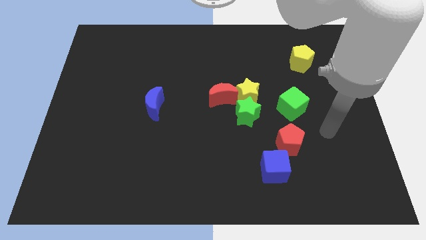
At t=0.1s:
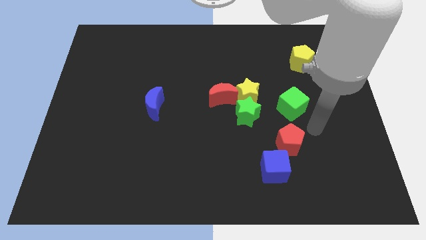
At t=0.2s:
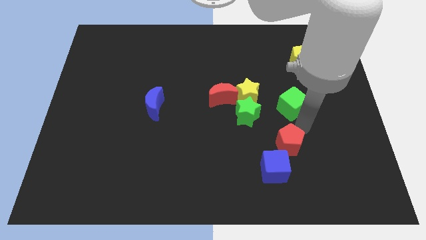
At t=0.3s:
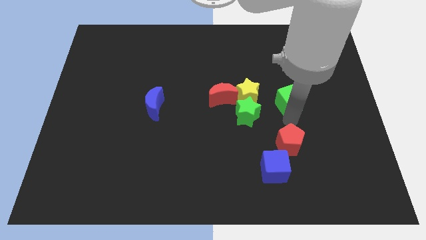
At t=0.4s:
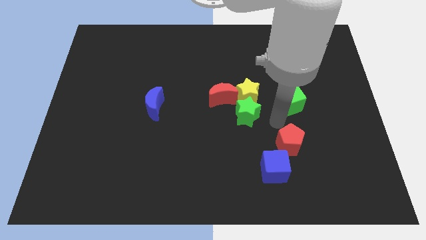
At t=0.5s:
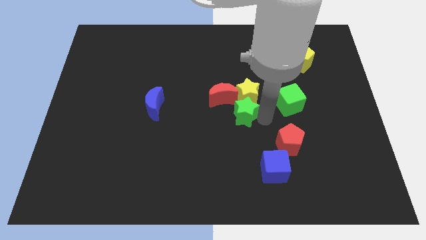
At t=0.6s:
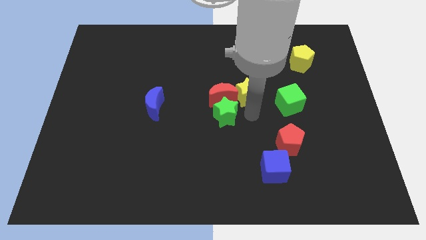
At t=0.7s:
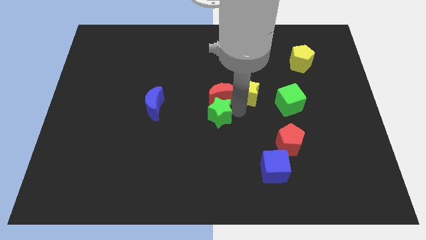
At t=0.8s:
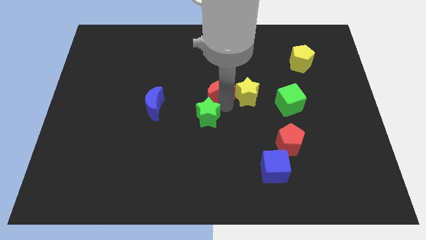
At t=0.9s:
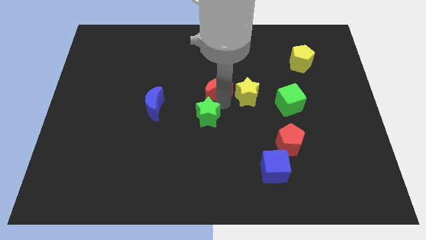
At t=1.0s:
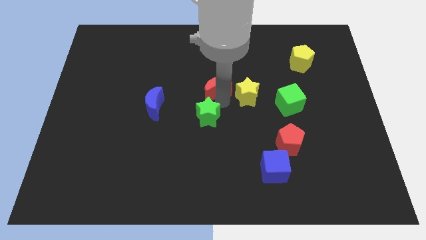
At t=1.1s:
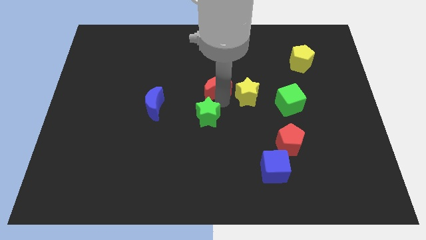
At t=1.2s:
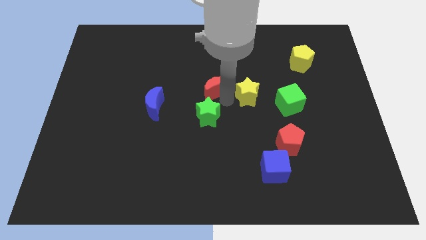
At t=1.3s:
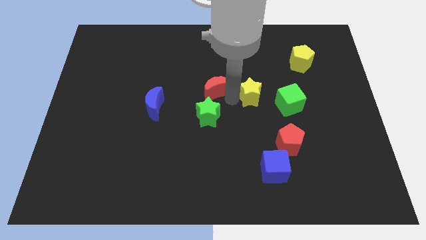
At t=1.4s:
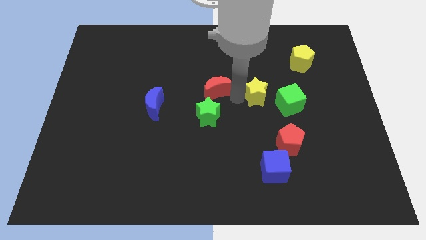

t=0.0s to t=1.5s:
separate the yellow star from the green star and red moon

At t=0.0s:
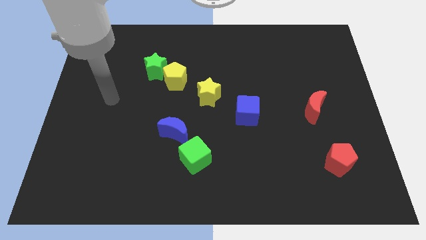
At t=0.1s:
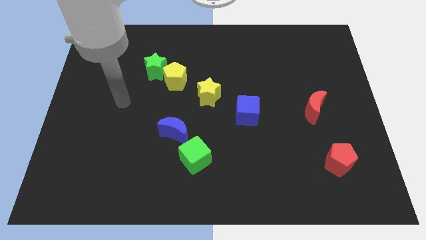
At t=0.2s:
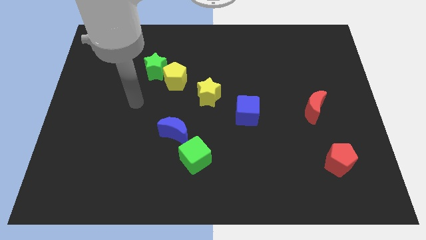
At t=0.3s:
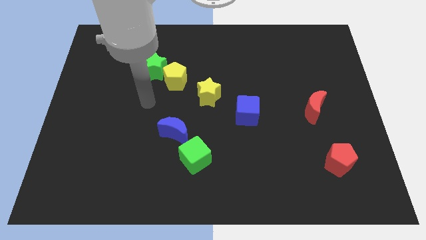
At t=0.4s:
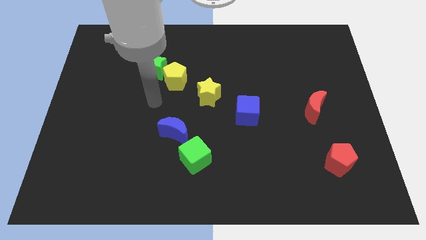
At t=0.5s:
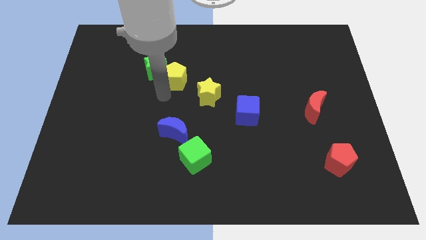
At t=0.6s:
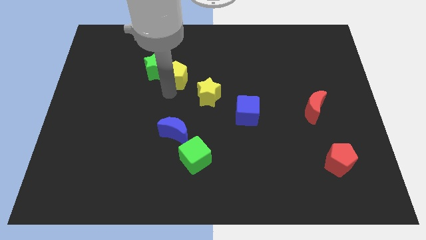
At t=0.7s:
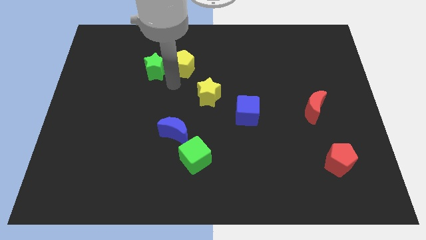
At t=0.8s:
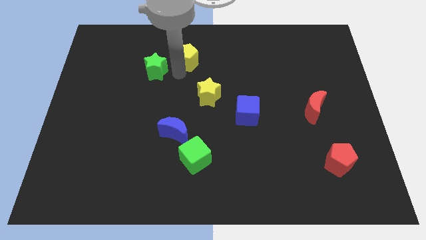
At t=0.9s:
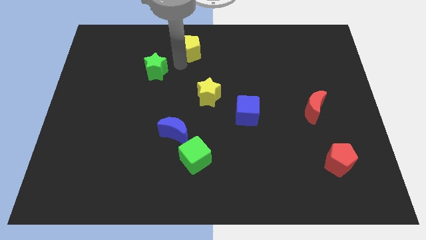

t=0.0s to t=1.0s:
pull the green star apart from the yellow pentagon

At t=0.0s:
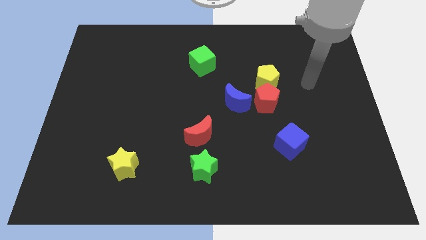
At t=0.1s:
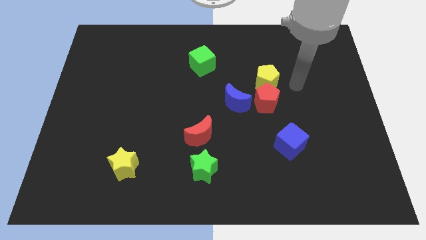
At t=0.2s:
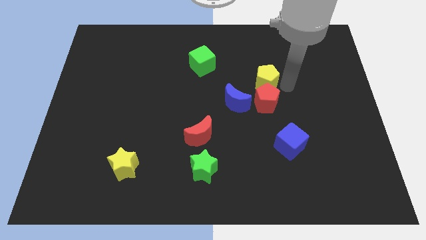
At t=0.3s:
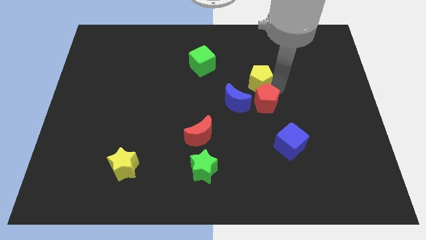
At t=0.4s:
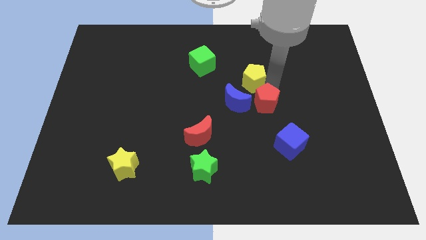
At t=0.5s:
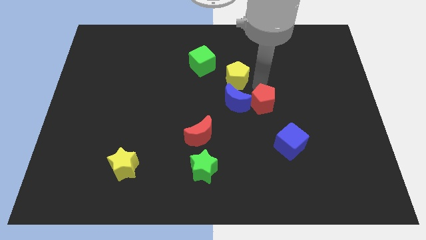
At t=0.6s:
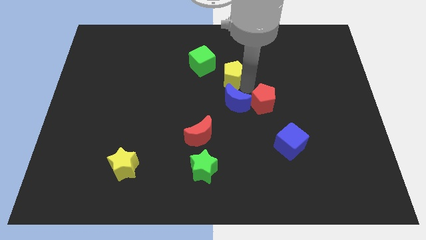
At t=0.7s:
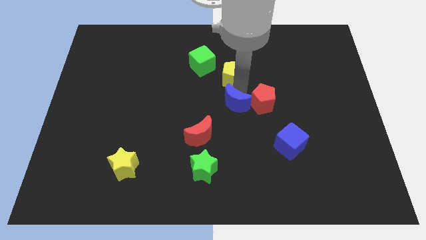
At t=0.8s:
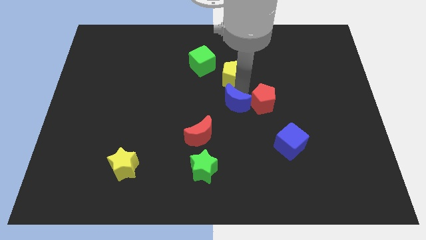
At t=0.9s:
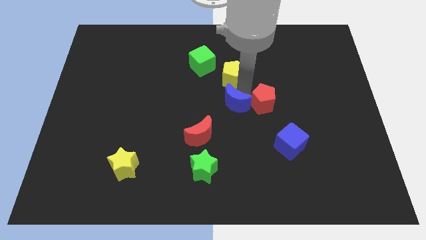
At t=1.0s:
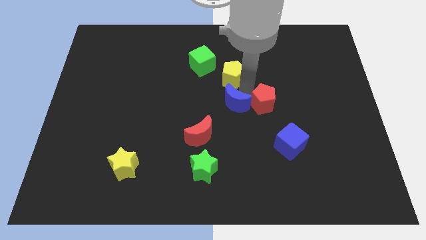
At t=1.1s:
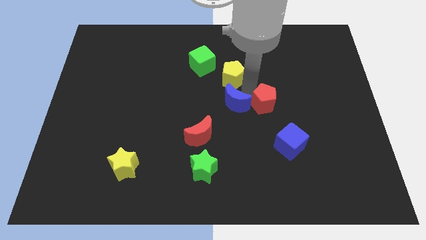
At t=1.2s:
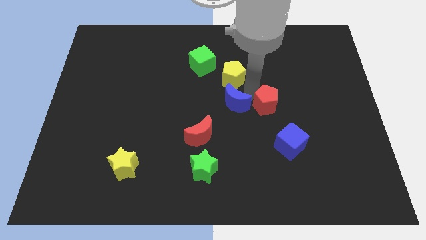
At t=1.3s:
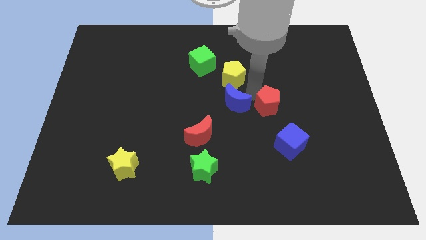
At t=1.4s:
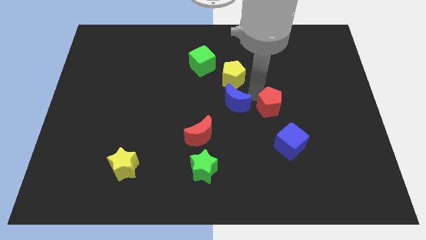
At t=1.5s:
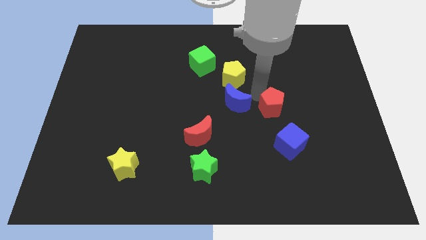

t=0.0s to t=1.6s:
move the red pentagon away from the yellow pentagon and blue moon

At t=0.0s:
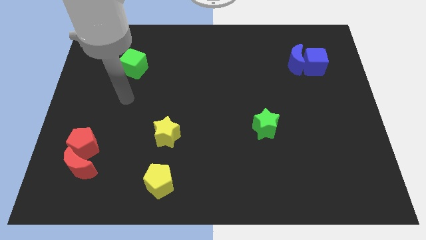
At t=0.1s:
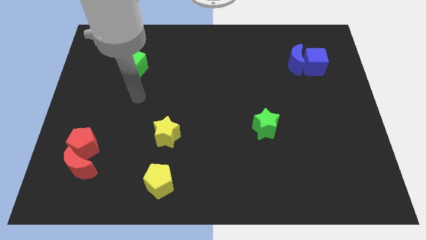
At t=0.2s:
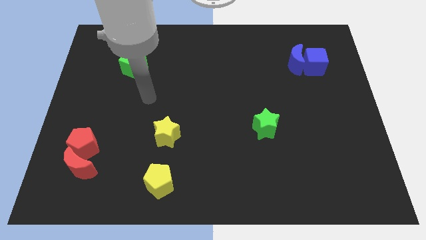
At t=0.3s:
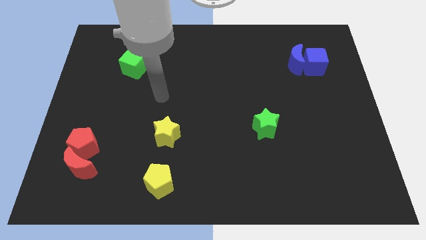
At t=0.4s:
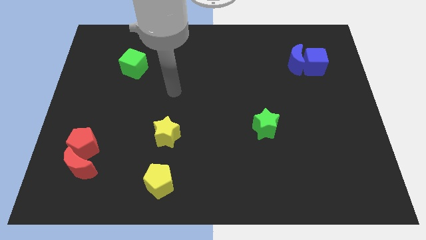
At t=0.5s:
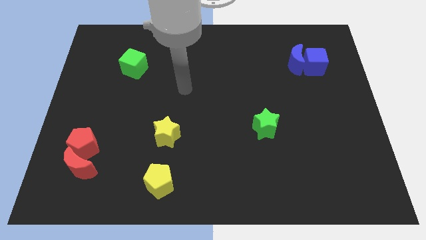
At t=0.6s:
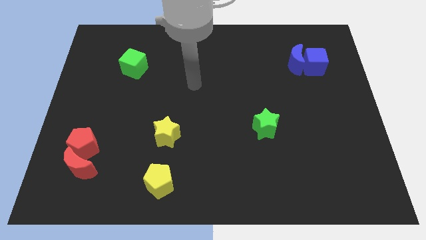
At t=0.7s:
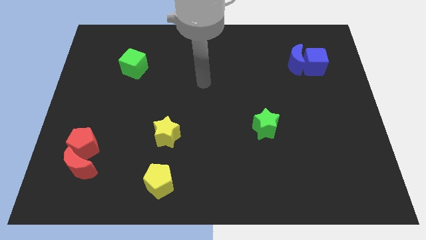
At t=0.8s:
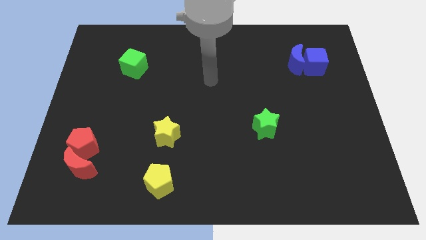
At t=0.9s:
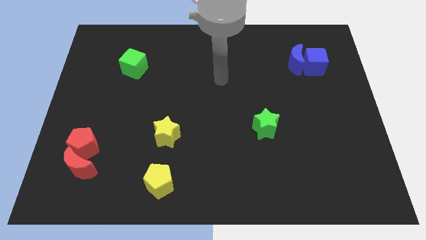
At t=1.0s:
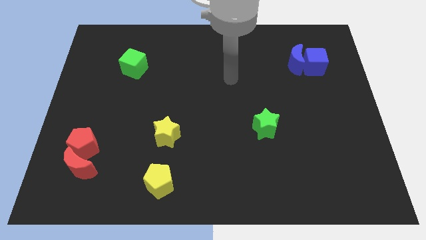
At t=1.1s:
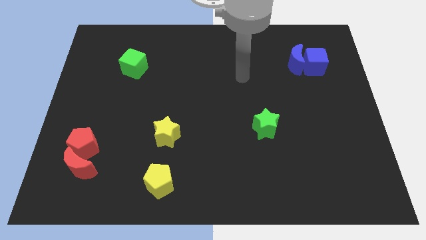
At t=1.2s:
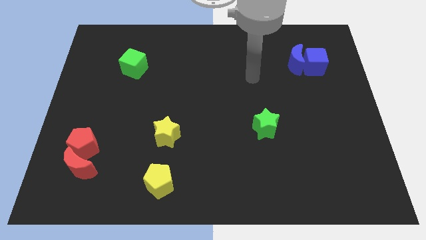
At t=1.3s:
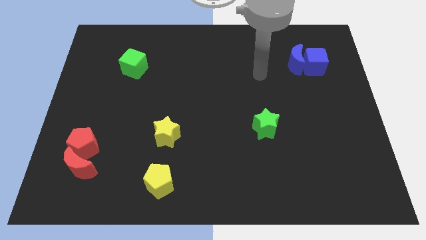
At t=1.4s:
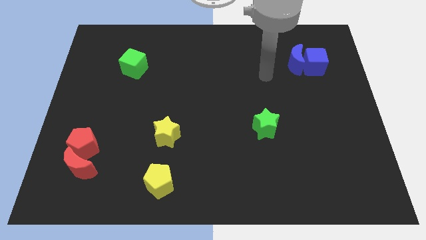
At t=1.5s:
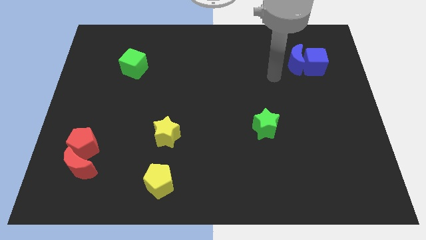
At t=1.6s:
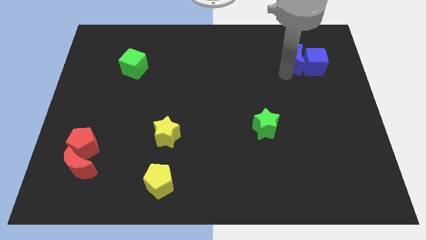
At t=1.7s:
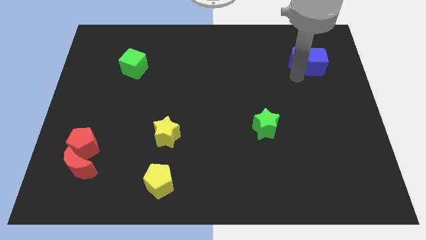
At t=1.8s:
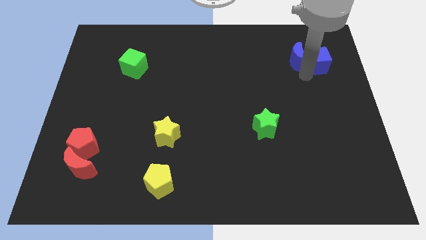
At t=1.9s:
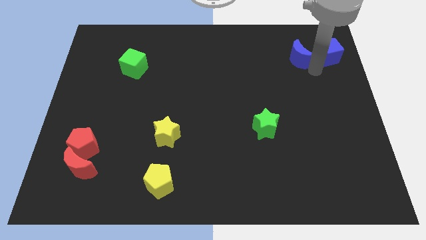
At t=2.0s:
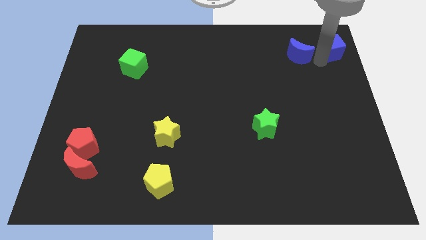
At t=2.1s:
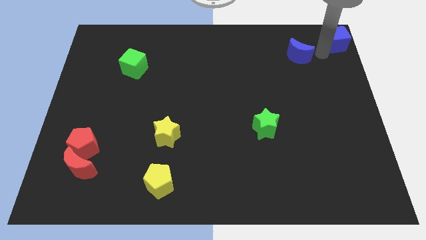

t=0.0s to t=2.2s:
move the blue moon away from the blue cube

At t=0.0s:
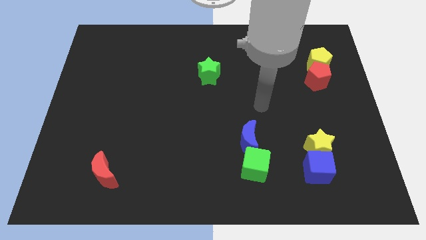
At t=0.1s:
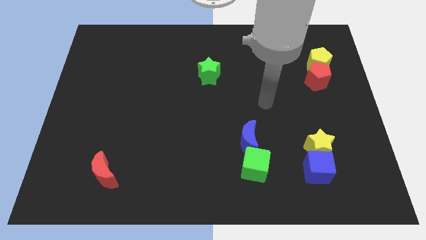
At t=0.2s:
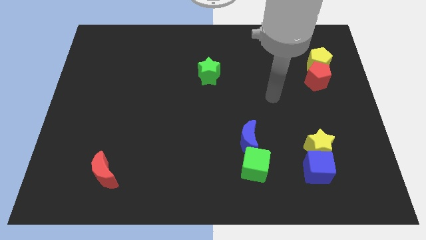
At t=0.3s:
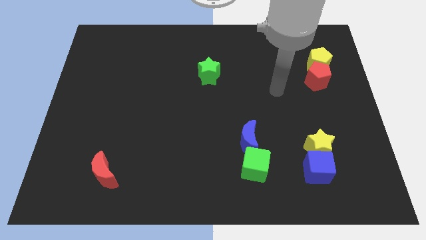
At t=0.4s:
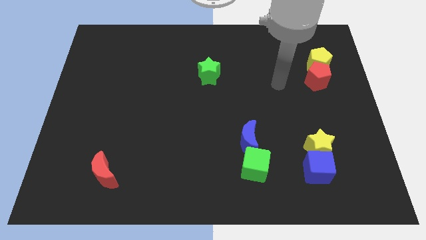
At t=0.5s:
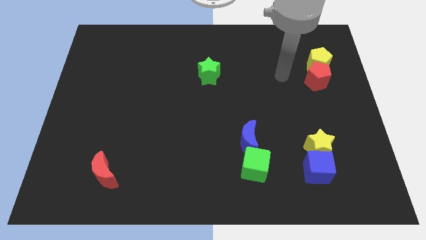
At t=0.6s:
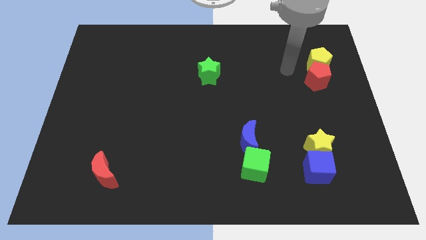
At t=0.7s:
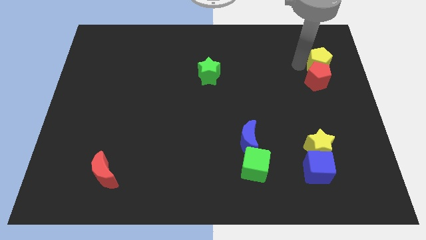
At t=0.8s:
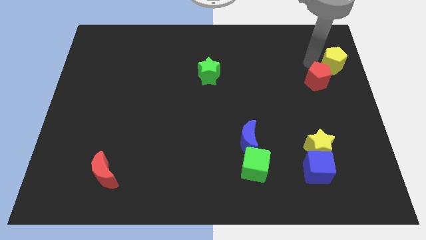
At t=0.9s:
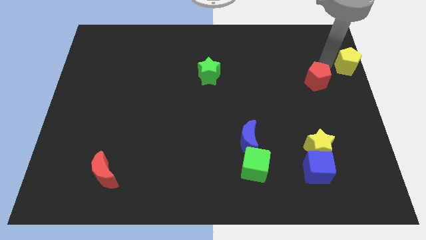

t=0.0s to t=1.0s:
pull the red pentagon apart from the yellow pentagon

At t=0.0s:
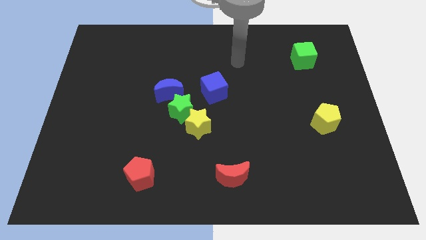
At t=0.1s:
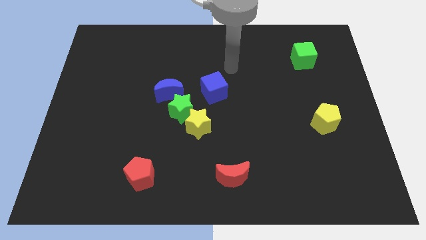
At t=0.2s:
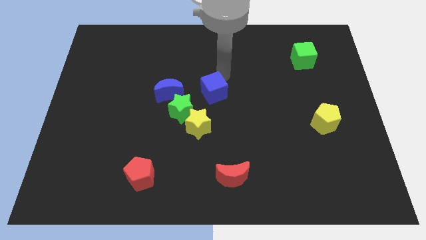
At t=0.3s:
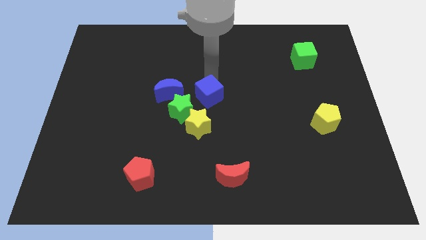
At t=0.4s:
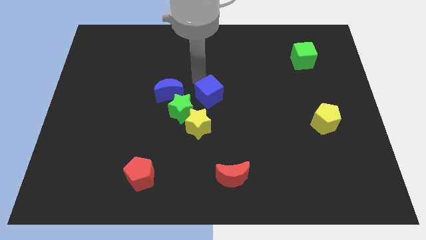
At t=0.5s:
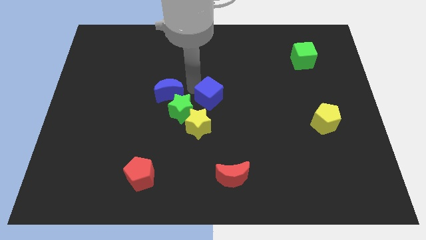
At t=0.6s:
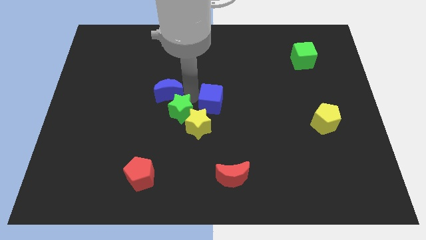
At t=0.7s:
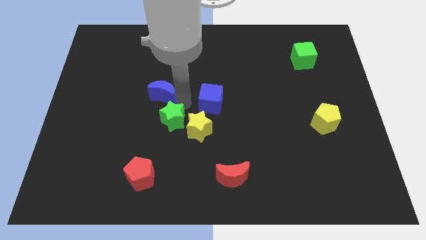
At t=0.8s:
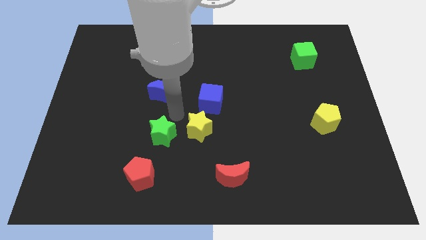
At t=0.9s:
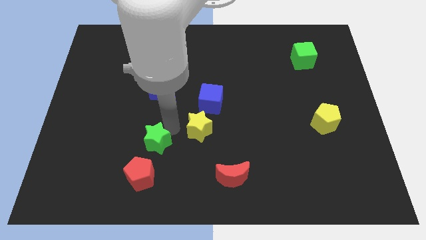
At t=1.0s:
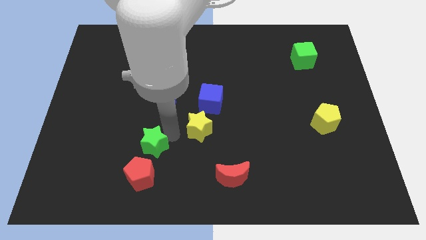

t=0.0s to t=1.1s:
separate the yellow star from the green star

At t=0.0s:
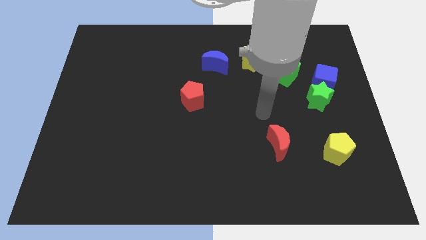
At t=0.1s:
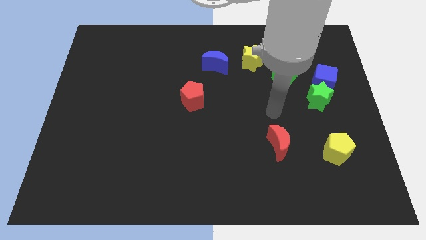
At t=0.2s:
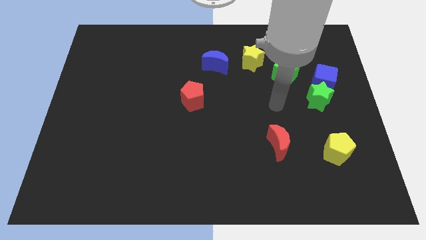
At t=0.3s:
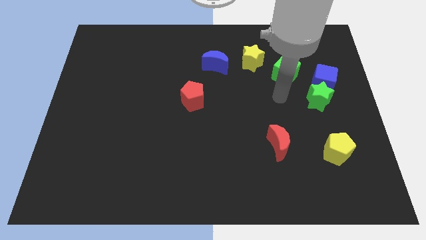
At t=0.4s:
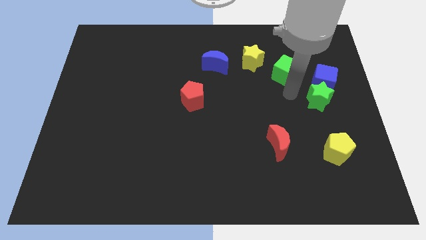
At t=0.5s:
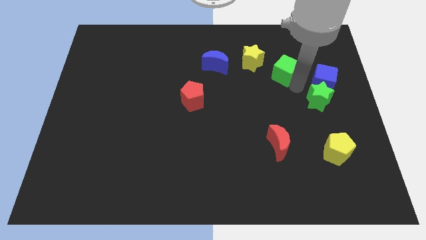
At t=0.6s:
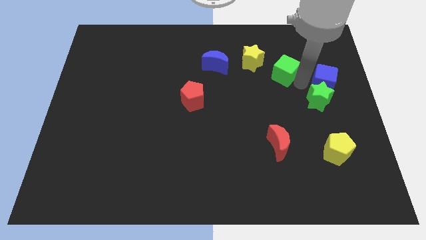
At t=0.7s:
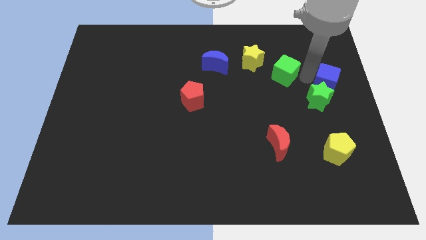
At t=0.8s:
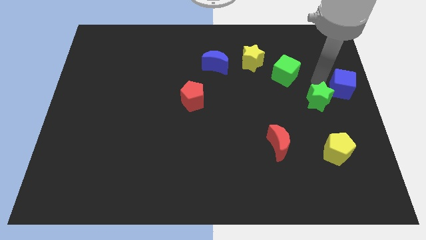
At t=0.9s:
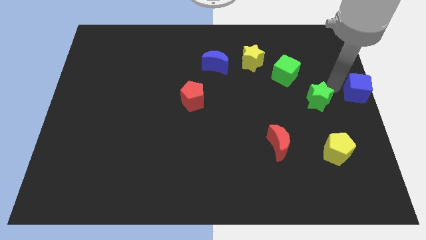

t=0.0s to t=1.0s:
move the green star away from the blue cube
